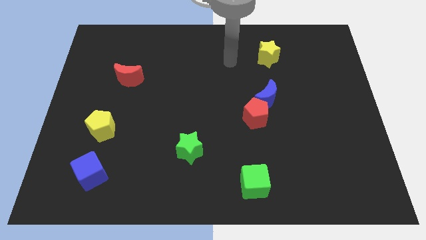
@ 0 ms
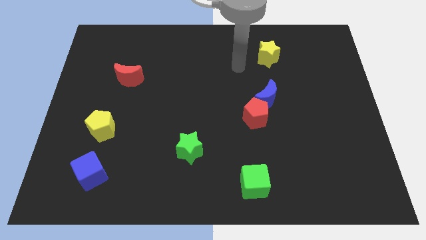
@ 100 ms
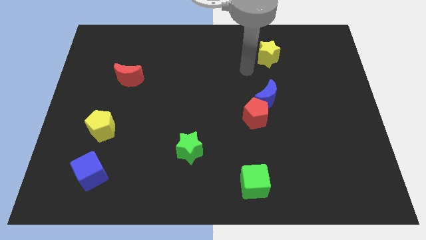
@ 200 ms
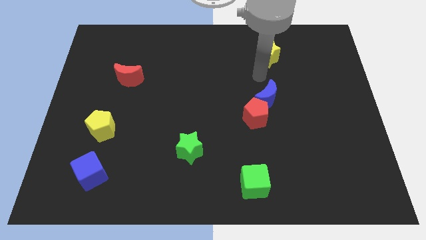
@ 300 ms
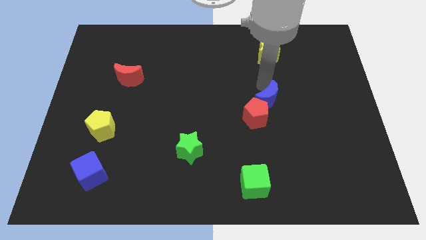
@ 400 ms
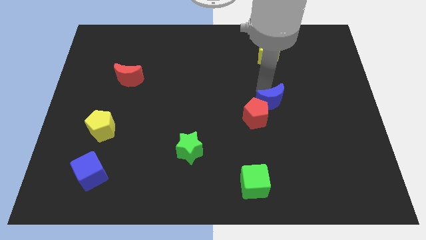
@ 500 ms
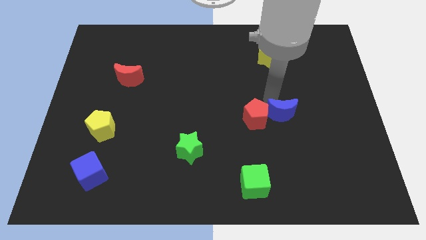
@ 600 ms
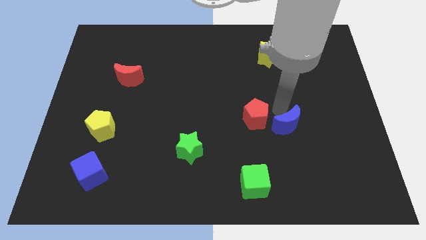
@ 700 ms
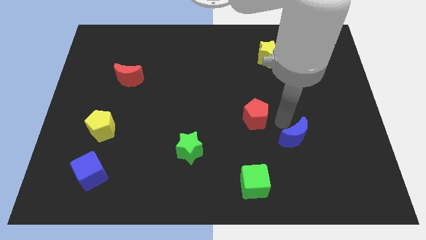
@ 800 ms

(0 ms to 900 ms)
pull the red pentagon apart from the blue moon

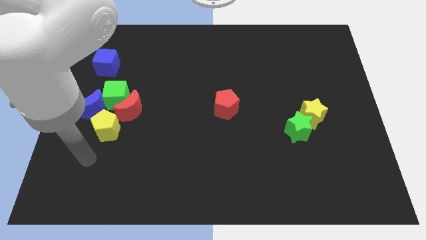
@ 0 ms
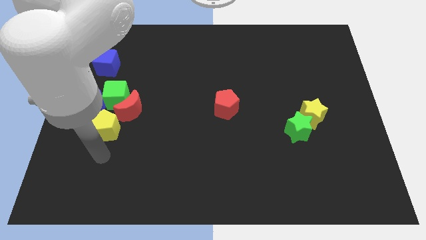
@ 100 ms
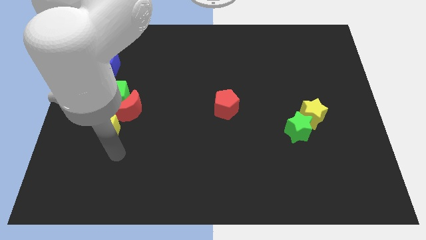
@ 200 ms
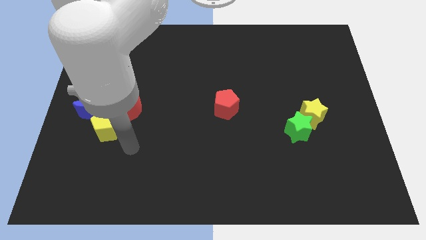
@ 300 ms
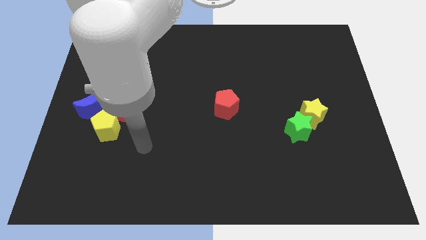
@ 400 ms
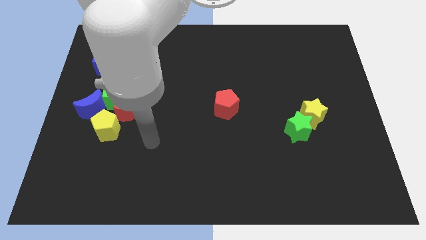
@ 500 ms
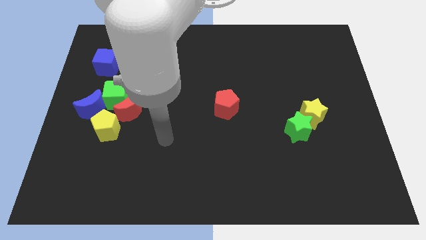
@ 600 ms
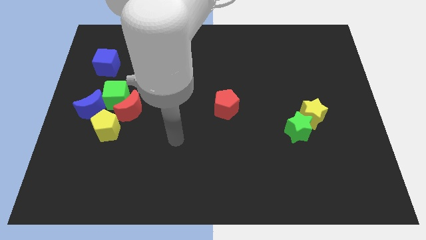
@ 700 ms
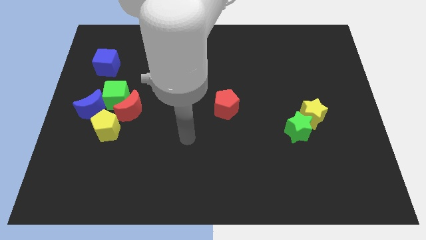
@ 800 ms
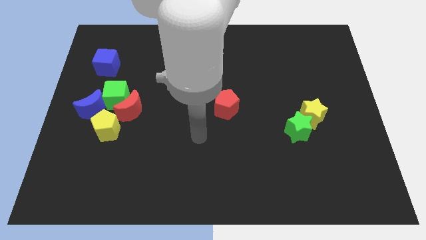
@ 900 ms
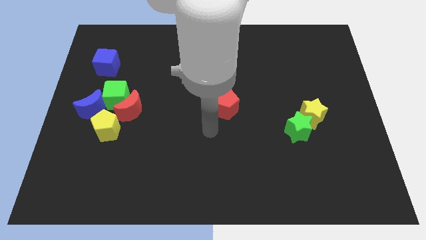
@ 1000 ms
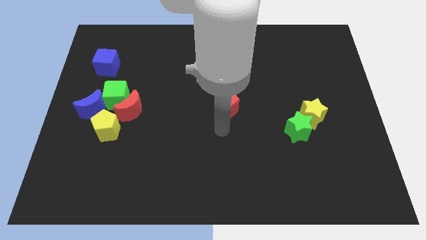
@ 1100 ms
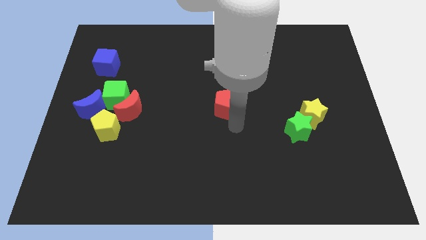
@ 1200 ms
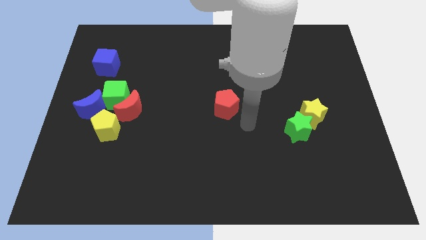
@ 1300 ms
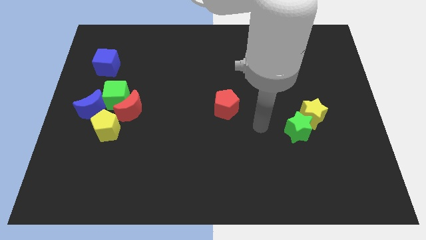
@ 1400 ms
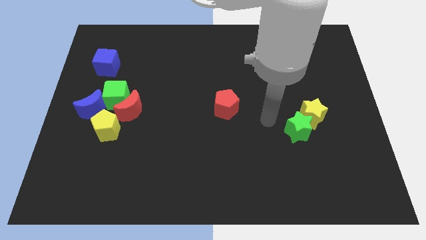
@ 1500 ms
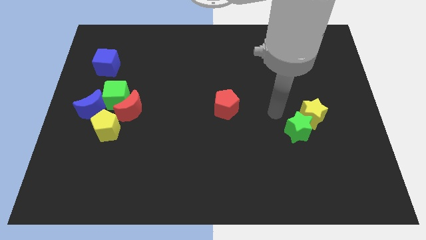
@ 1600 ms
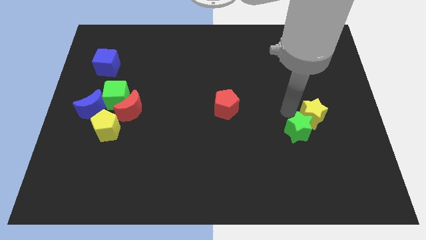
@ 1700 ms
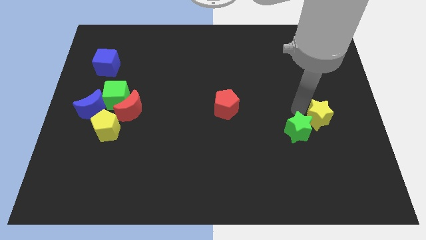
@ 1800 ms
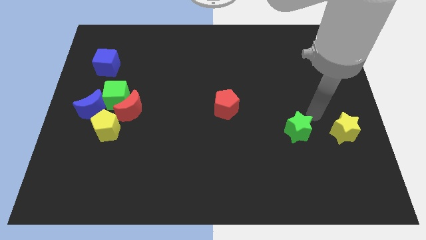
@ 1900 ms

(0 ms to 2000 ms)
move the green star away from the yellow star

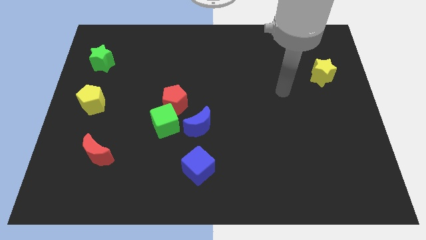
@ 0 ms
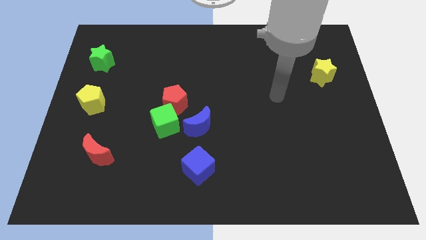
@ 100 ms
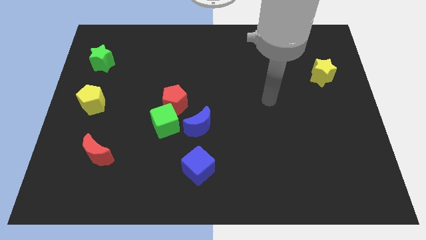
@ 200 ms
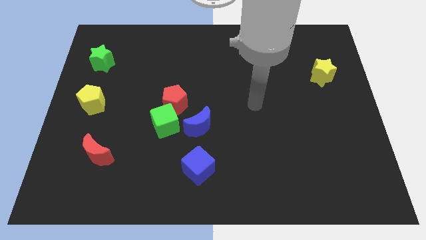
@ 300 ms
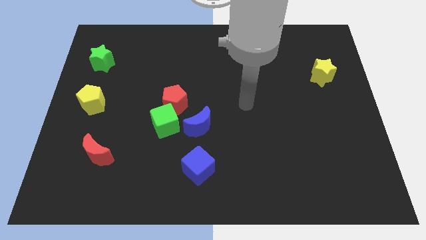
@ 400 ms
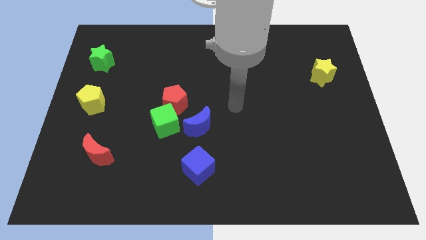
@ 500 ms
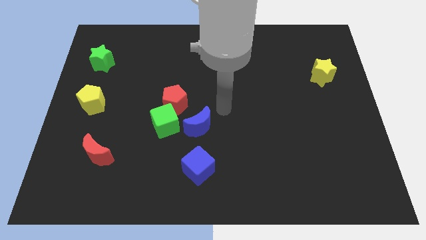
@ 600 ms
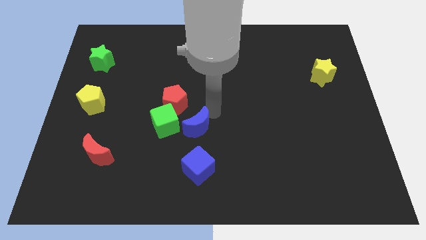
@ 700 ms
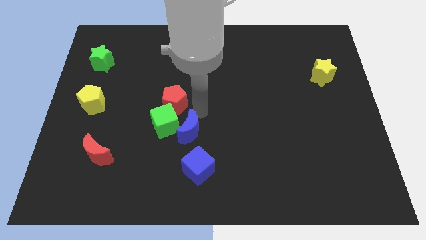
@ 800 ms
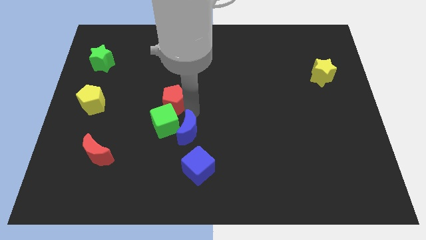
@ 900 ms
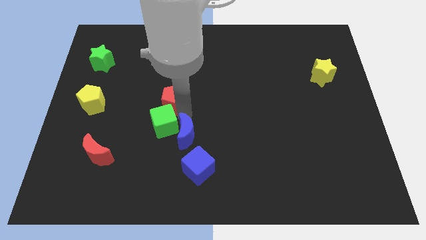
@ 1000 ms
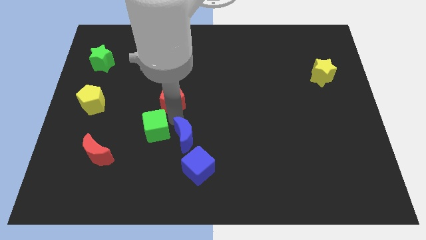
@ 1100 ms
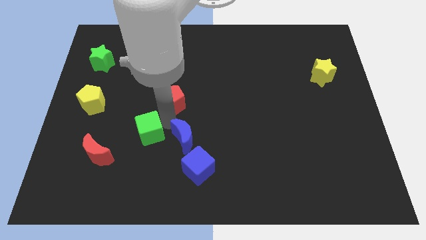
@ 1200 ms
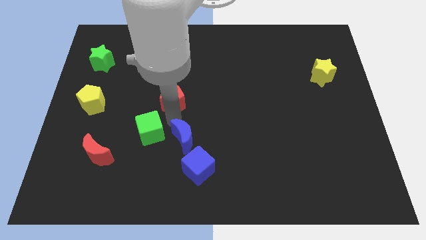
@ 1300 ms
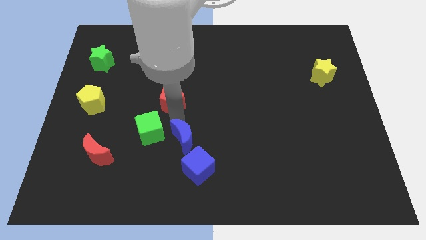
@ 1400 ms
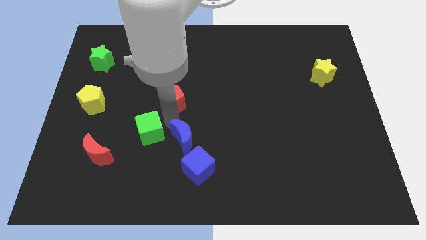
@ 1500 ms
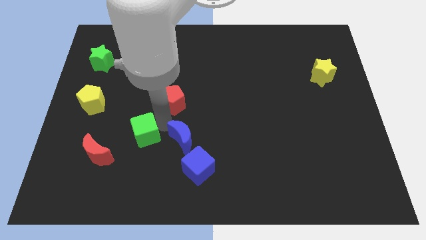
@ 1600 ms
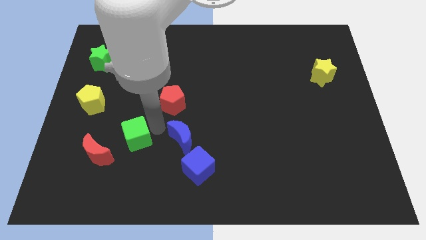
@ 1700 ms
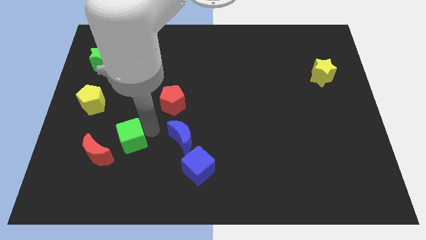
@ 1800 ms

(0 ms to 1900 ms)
move the green cube away from the red pentagon and blue moon

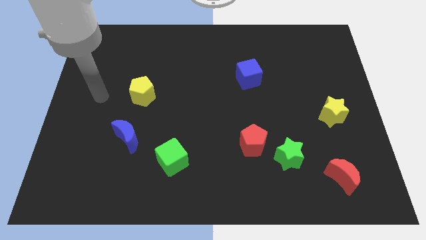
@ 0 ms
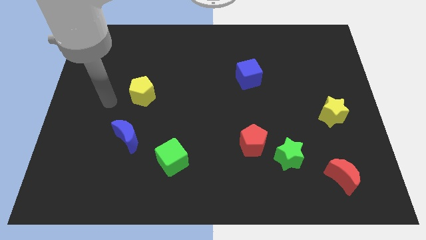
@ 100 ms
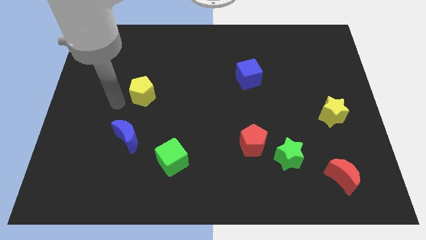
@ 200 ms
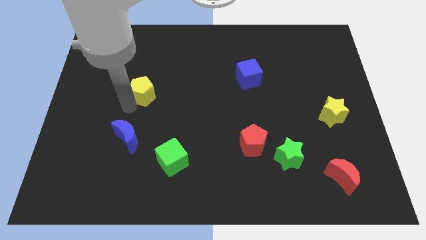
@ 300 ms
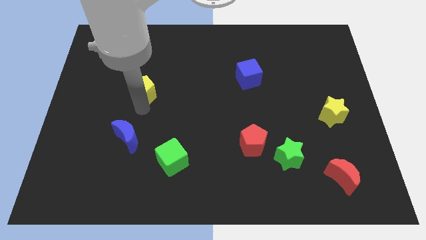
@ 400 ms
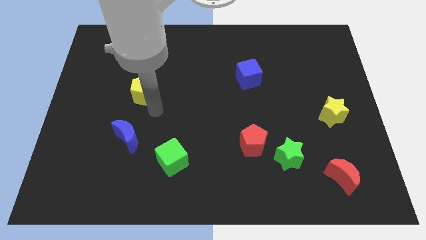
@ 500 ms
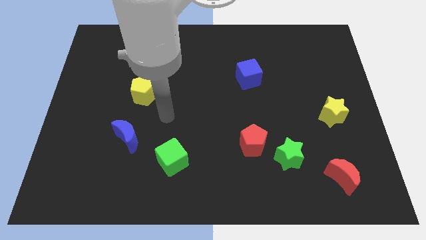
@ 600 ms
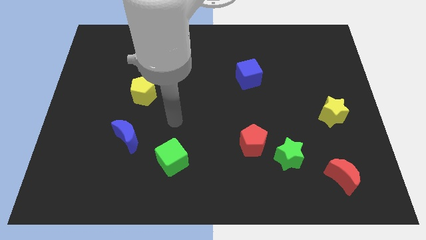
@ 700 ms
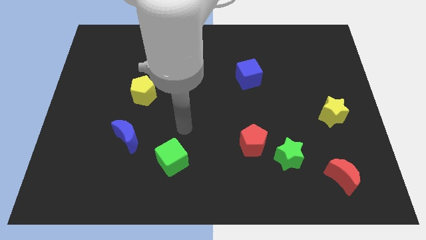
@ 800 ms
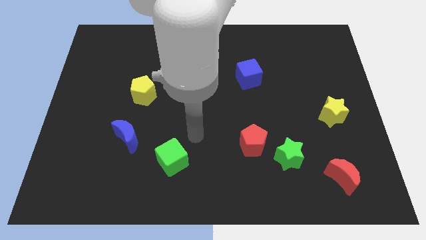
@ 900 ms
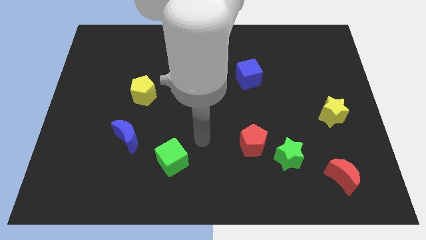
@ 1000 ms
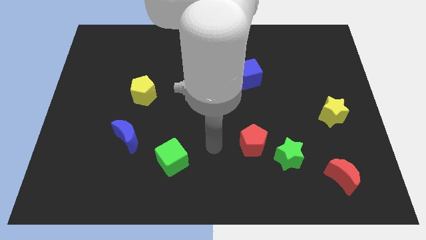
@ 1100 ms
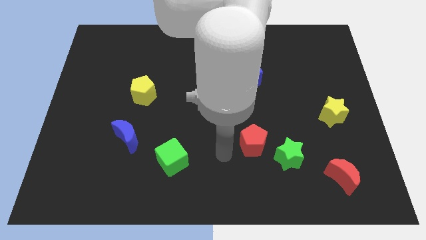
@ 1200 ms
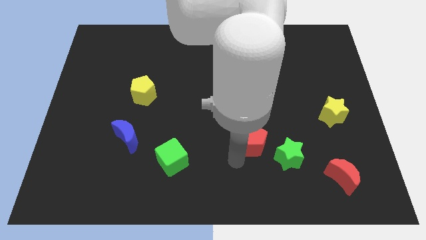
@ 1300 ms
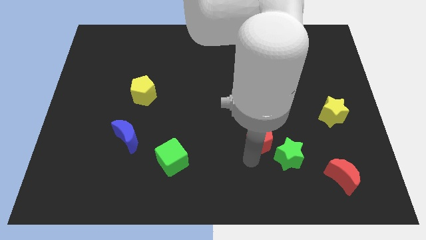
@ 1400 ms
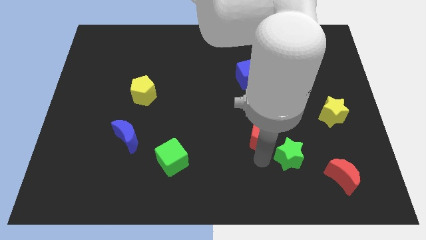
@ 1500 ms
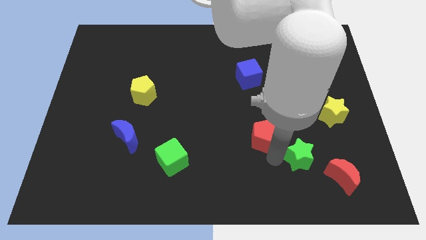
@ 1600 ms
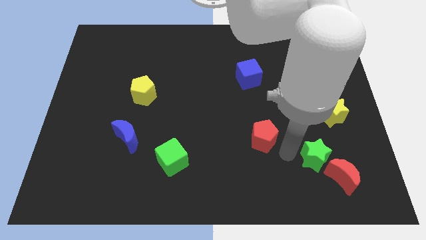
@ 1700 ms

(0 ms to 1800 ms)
separate the red pentagon from the green star

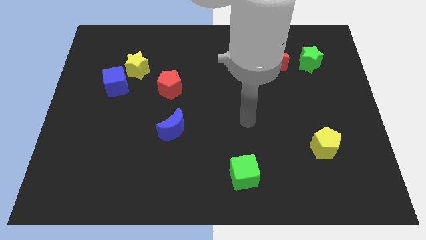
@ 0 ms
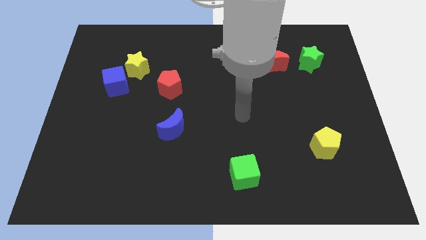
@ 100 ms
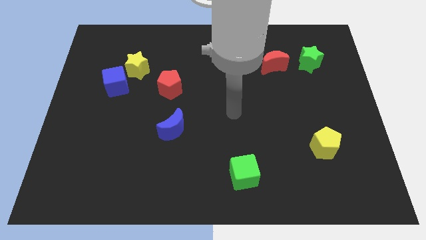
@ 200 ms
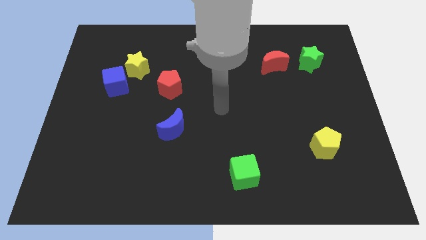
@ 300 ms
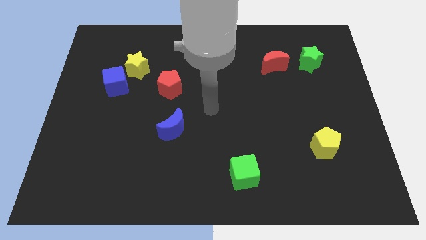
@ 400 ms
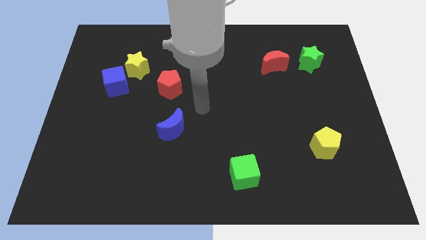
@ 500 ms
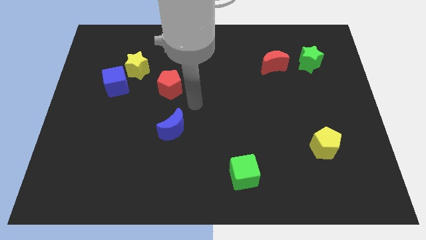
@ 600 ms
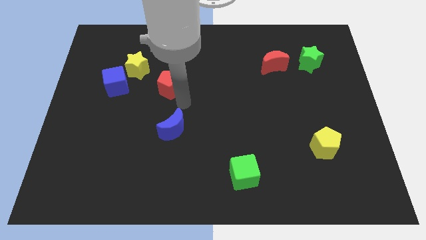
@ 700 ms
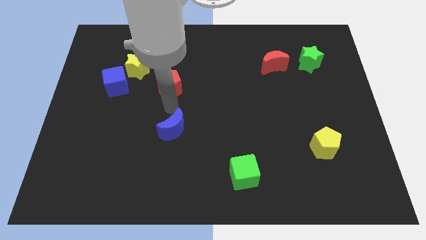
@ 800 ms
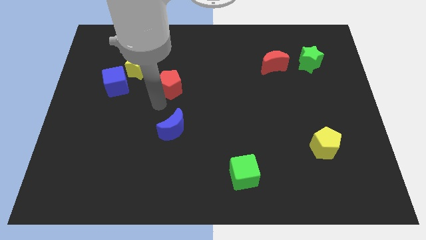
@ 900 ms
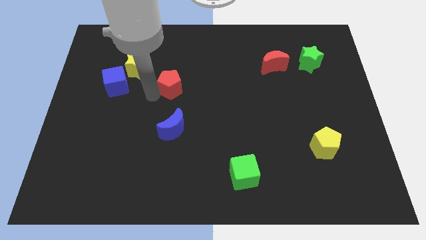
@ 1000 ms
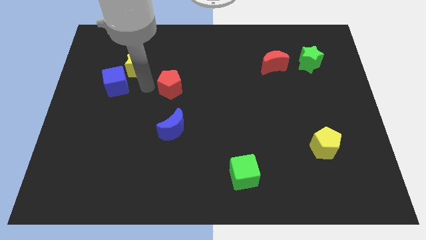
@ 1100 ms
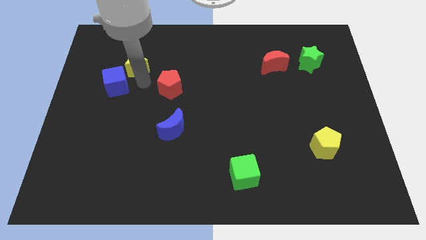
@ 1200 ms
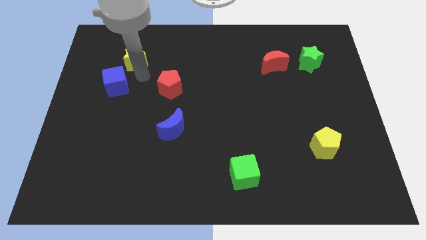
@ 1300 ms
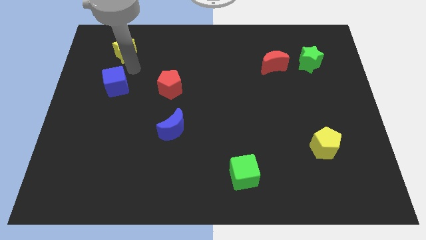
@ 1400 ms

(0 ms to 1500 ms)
pull the blue cube apart from the yellow star

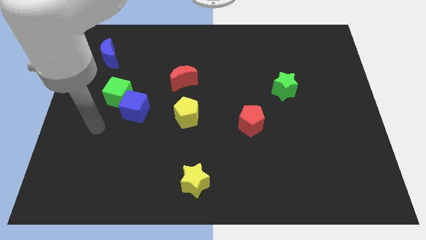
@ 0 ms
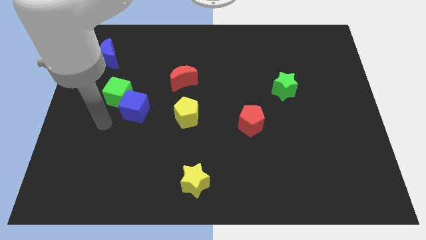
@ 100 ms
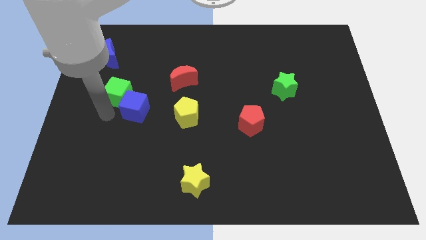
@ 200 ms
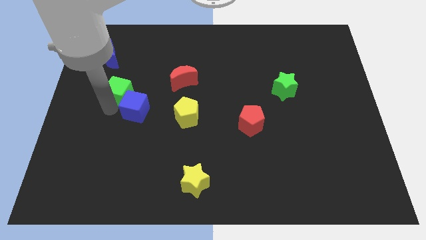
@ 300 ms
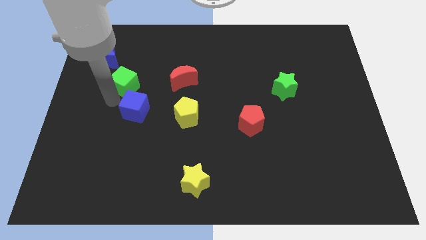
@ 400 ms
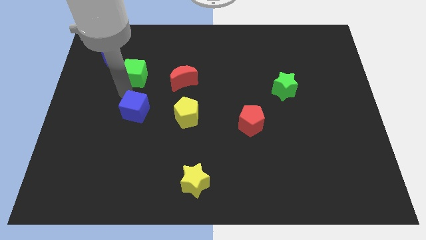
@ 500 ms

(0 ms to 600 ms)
move the blue cube away from the green cube

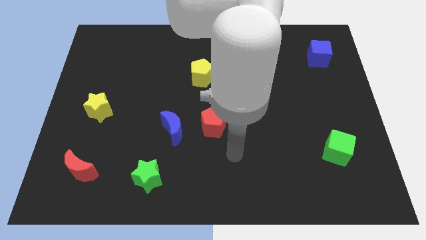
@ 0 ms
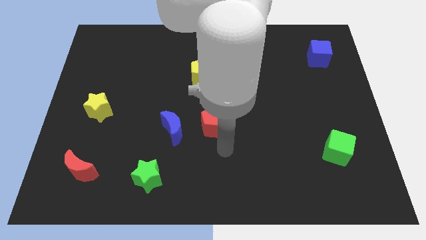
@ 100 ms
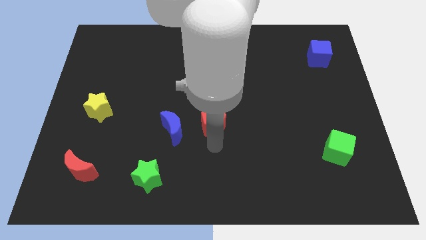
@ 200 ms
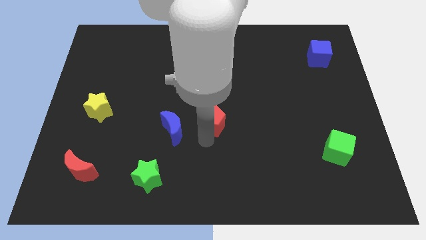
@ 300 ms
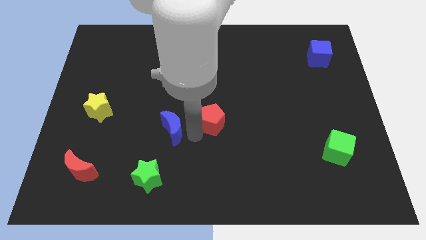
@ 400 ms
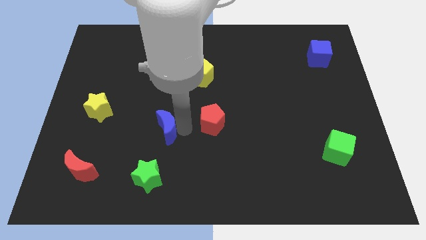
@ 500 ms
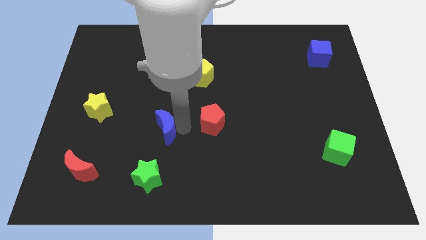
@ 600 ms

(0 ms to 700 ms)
separate the red pentagon from the blue moon

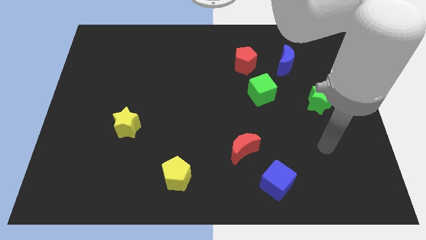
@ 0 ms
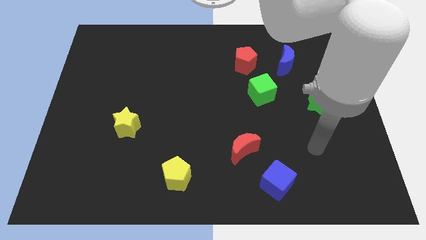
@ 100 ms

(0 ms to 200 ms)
move the red moon away from the blue cube
